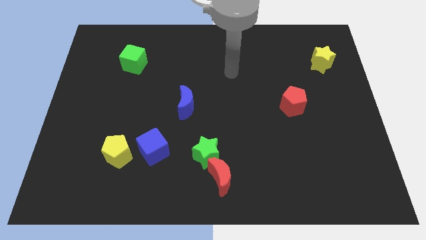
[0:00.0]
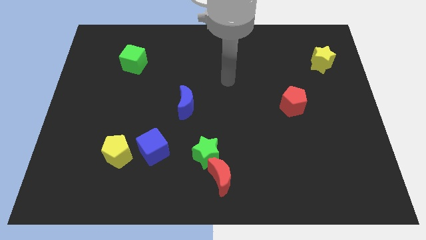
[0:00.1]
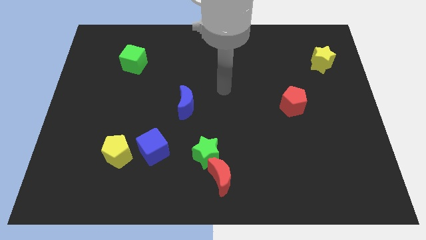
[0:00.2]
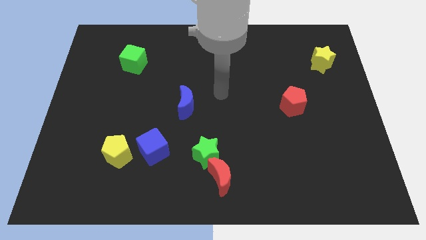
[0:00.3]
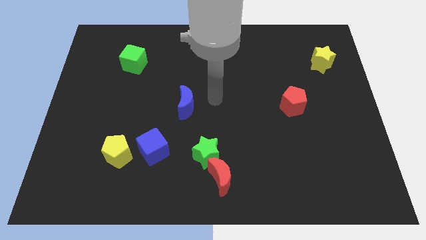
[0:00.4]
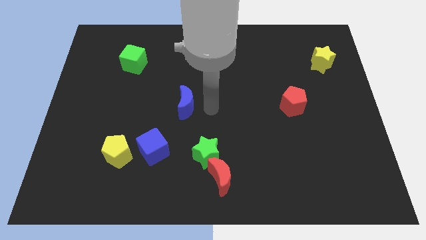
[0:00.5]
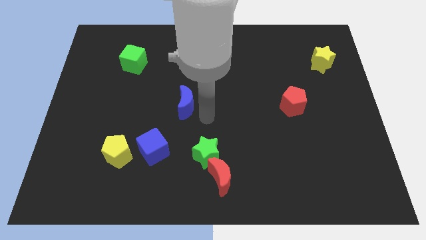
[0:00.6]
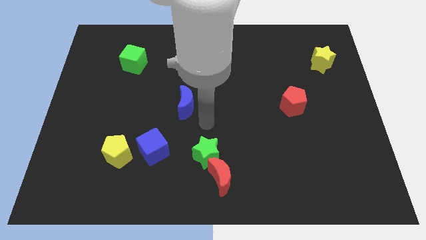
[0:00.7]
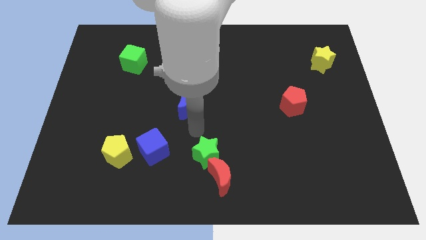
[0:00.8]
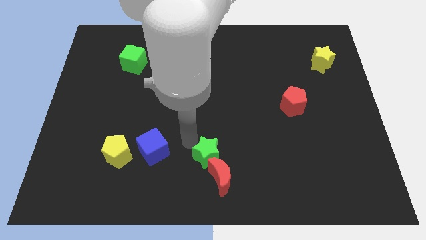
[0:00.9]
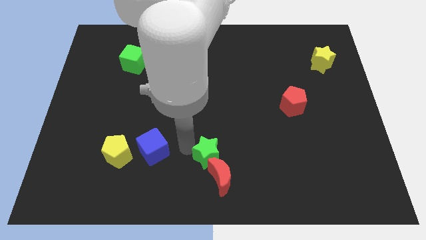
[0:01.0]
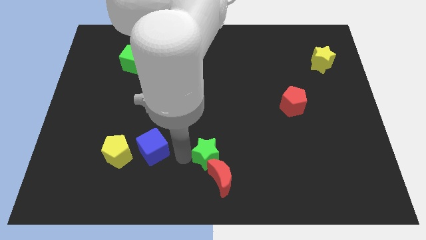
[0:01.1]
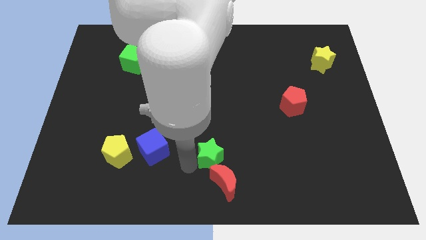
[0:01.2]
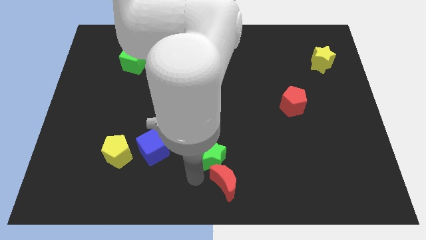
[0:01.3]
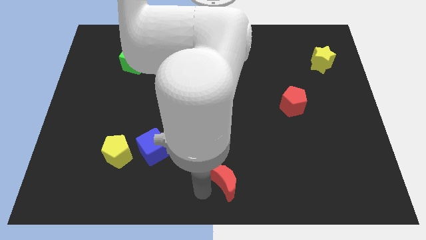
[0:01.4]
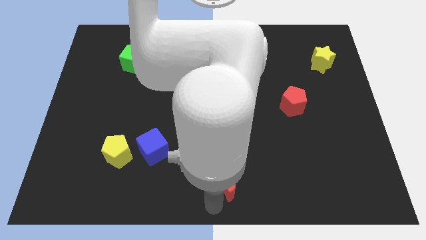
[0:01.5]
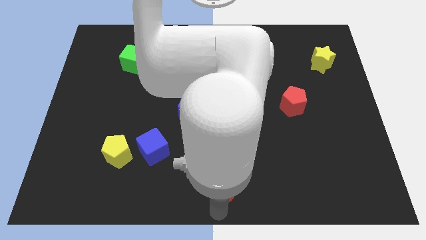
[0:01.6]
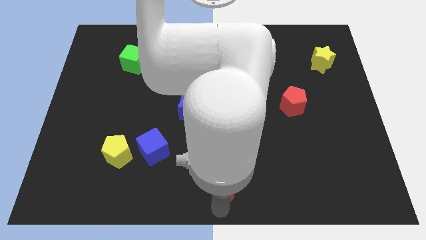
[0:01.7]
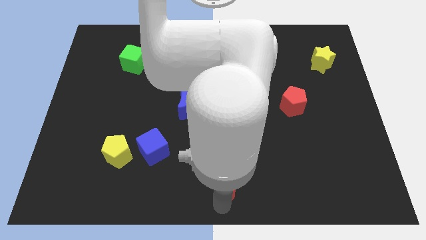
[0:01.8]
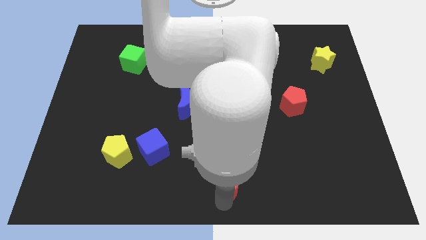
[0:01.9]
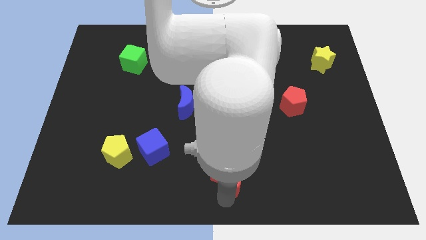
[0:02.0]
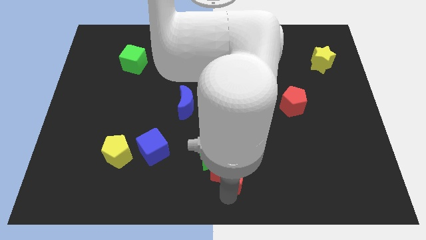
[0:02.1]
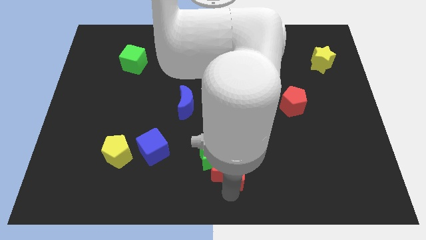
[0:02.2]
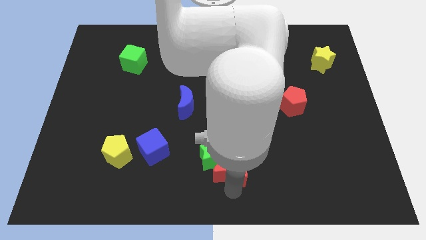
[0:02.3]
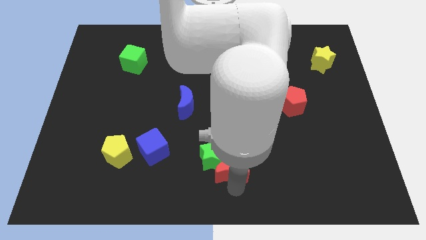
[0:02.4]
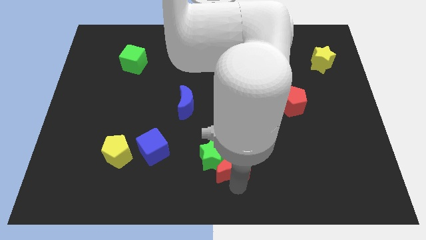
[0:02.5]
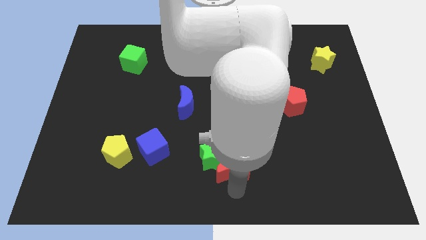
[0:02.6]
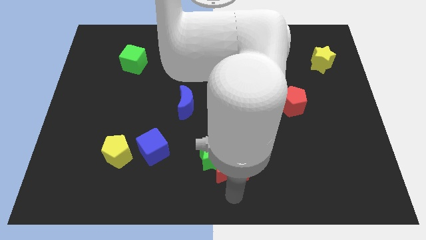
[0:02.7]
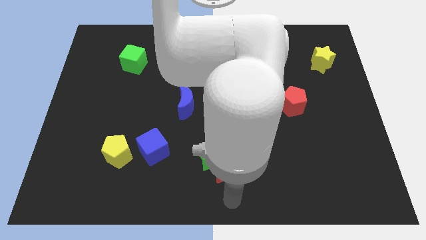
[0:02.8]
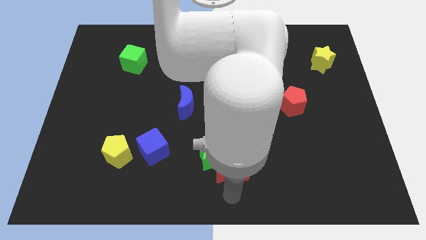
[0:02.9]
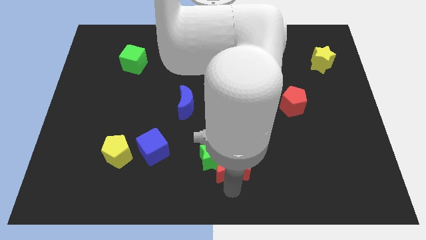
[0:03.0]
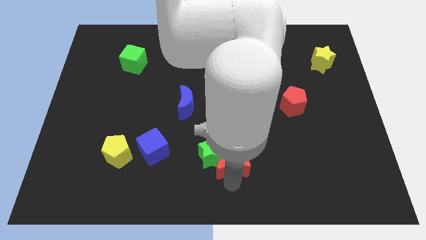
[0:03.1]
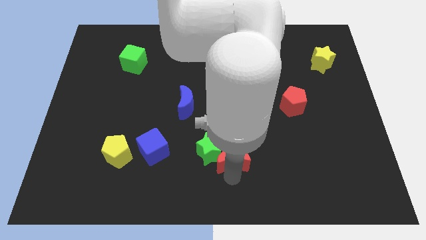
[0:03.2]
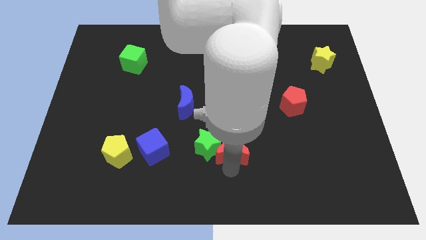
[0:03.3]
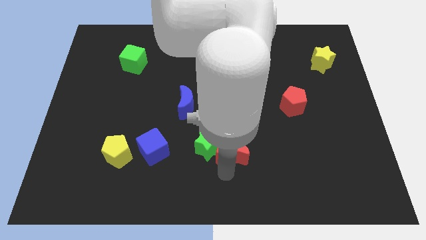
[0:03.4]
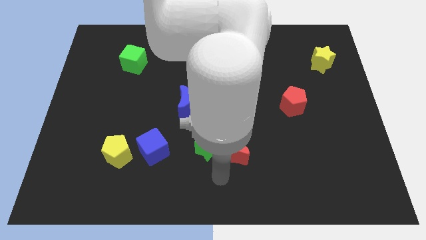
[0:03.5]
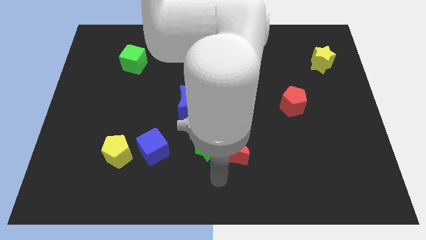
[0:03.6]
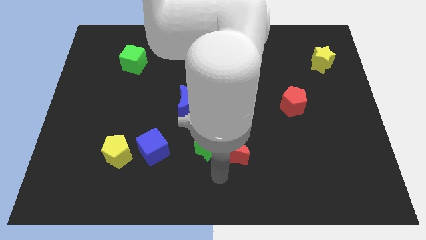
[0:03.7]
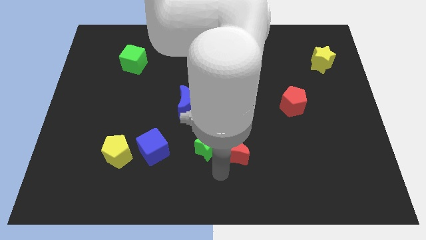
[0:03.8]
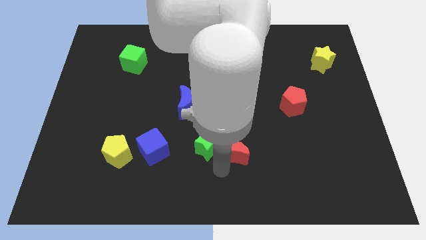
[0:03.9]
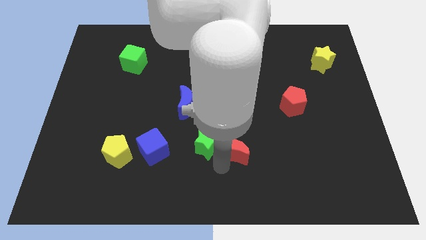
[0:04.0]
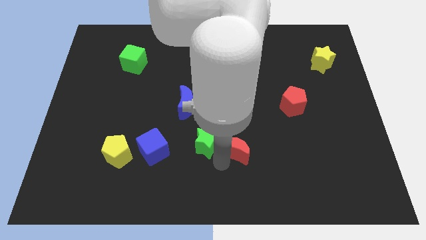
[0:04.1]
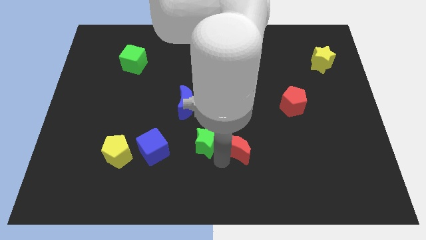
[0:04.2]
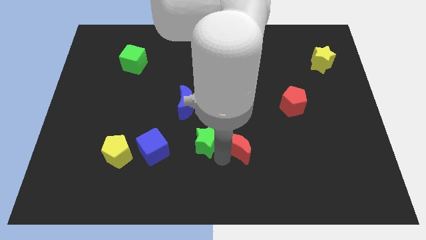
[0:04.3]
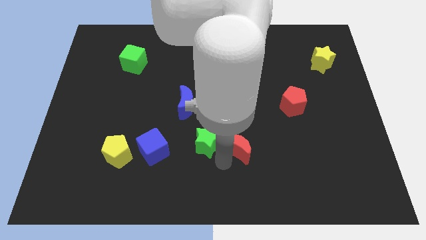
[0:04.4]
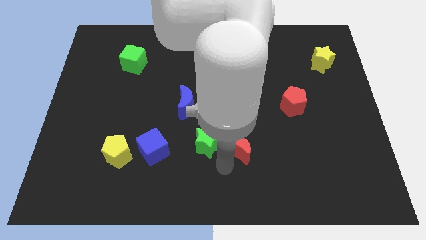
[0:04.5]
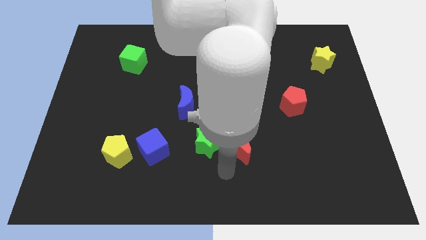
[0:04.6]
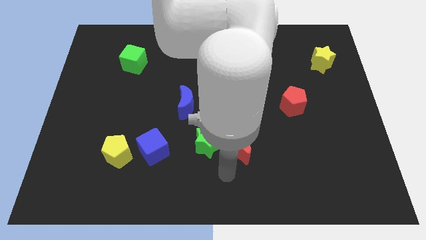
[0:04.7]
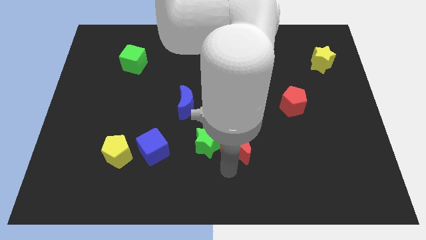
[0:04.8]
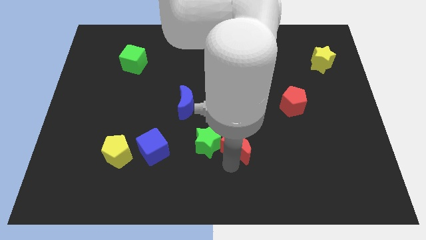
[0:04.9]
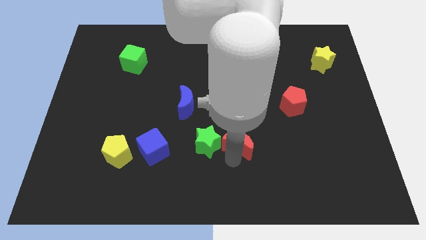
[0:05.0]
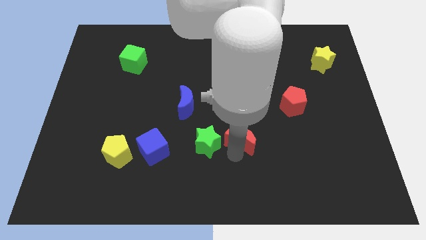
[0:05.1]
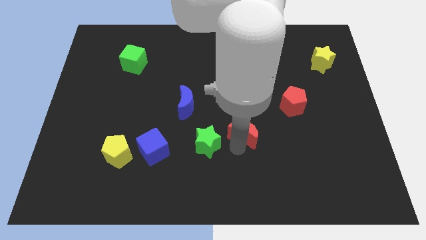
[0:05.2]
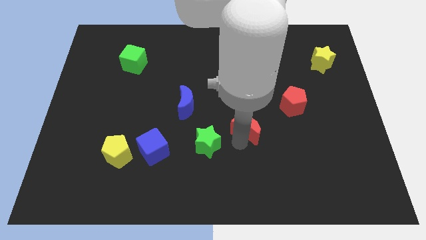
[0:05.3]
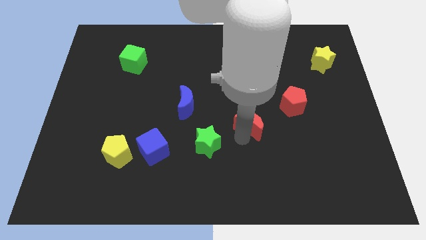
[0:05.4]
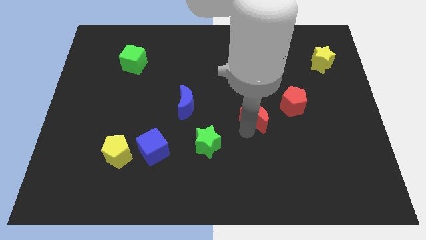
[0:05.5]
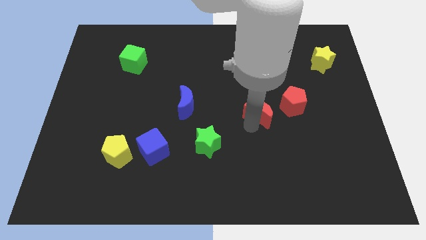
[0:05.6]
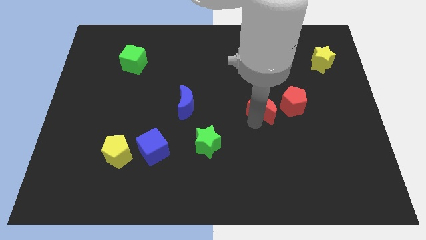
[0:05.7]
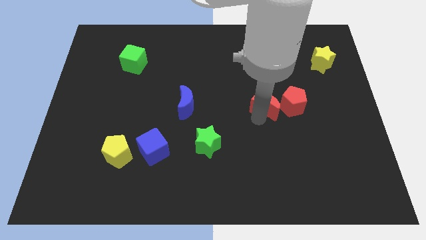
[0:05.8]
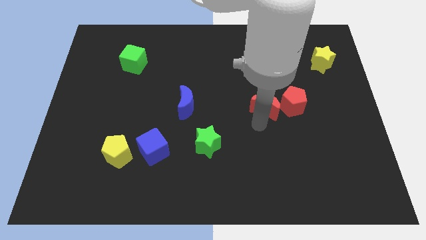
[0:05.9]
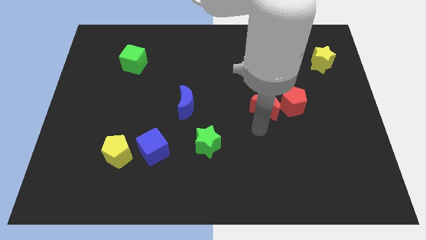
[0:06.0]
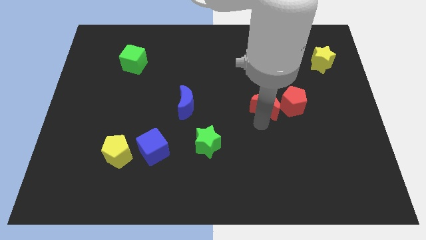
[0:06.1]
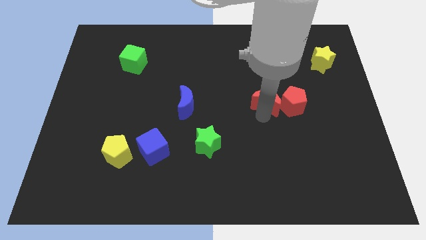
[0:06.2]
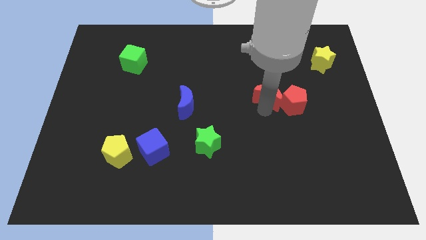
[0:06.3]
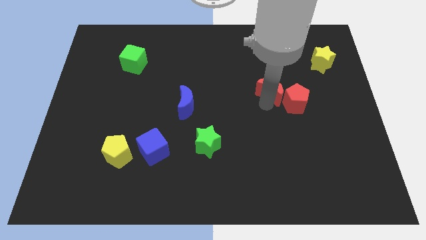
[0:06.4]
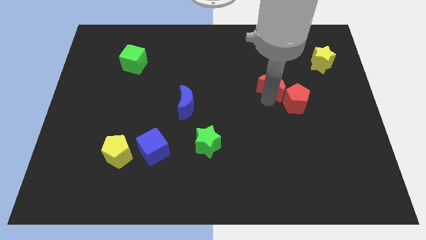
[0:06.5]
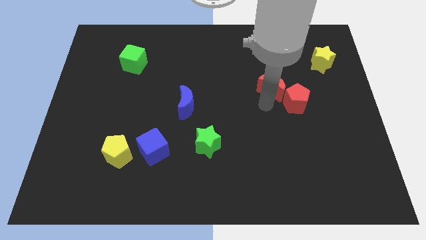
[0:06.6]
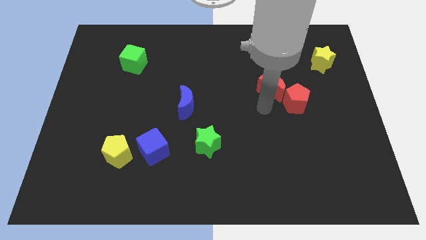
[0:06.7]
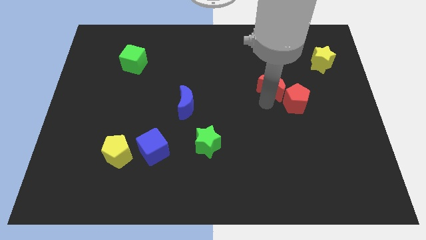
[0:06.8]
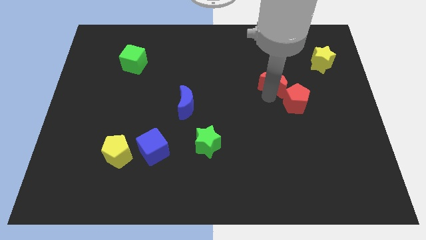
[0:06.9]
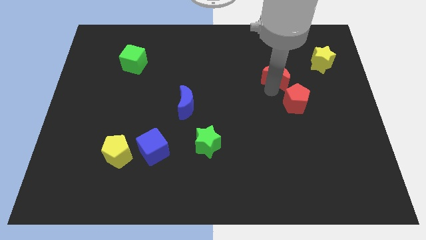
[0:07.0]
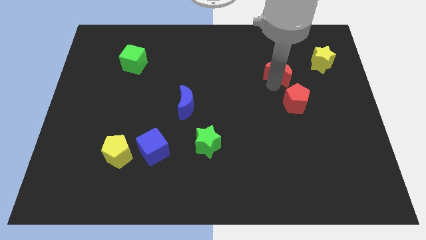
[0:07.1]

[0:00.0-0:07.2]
push the red moon just left of the yellow star
